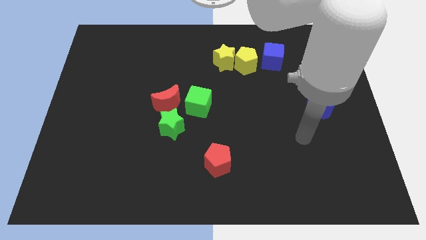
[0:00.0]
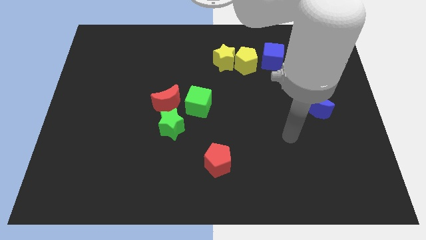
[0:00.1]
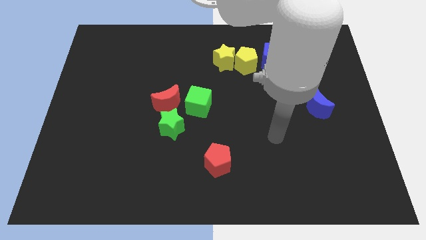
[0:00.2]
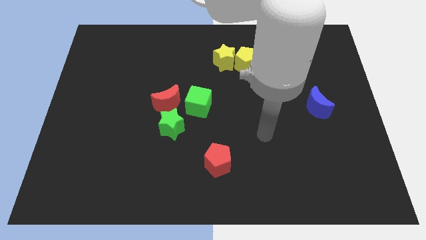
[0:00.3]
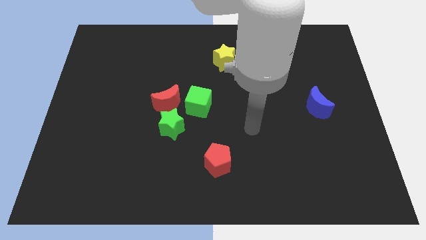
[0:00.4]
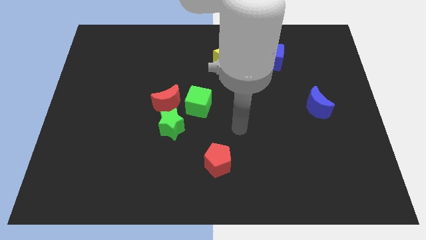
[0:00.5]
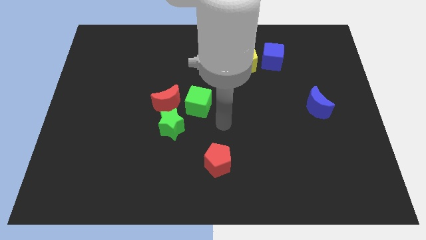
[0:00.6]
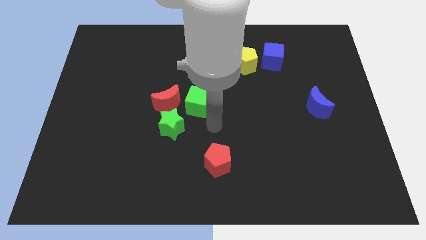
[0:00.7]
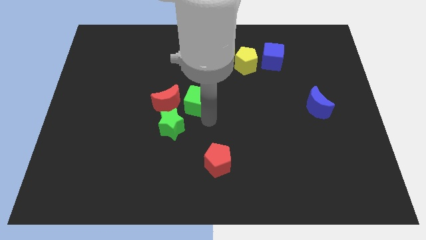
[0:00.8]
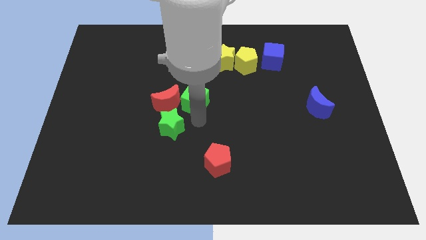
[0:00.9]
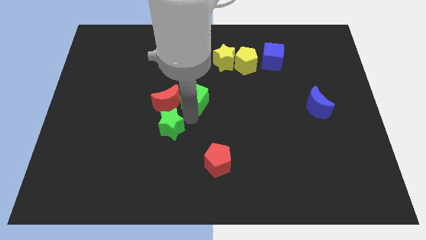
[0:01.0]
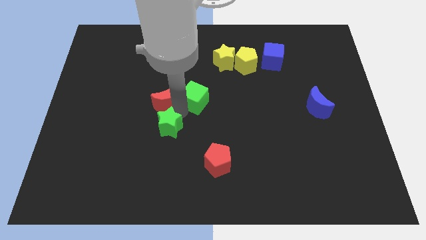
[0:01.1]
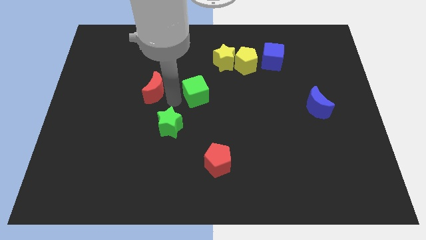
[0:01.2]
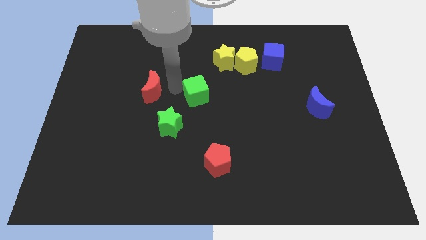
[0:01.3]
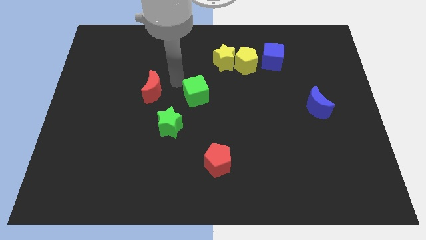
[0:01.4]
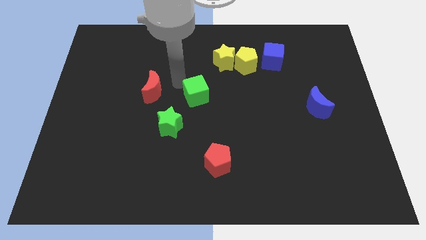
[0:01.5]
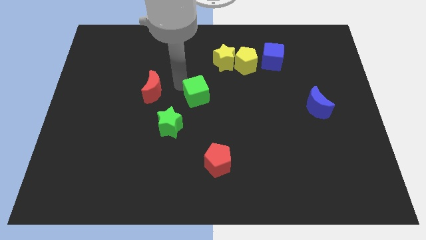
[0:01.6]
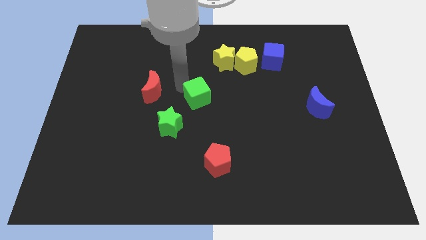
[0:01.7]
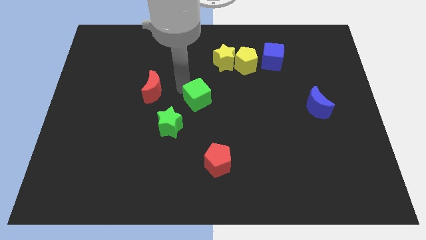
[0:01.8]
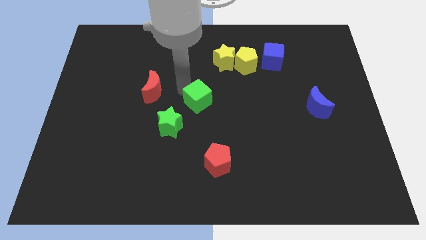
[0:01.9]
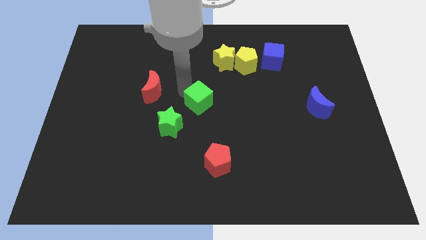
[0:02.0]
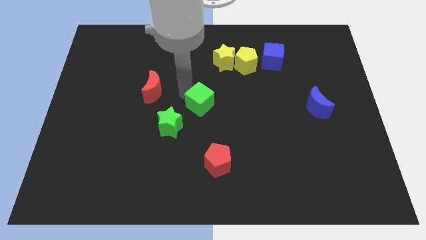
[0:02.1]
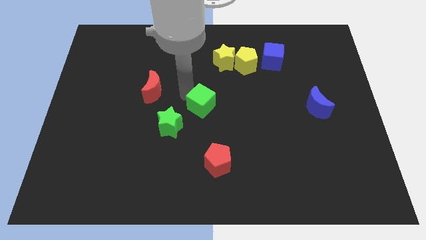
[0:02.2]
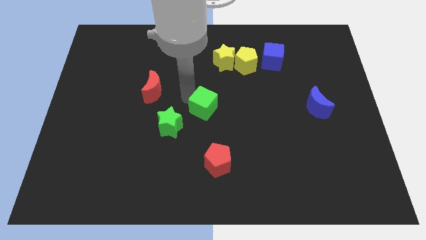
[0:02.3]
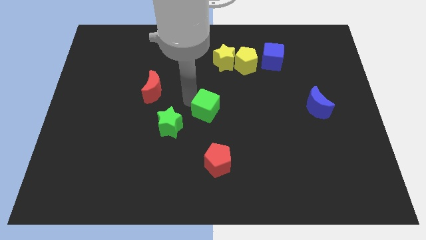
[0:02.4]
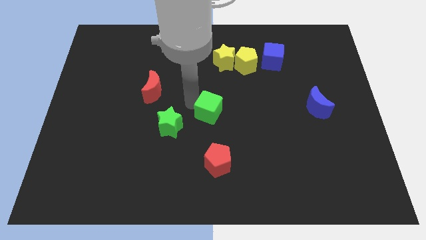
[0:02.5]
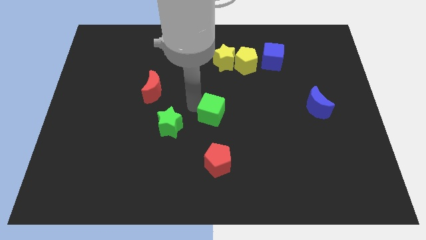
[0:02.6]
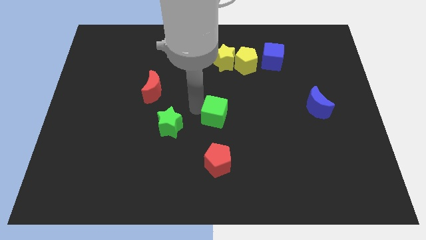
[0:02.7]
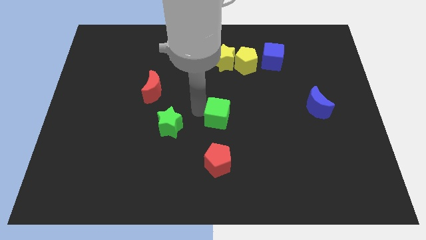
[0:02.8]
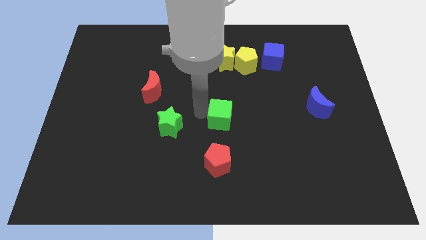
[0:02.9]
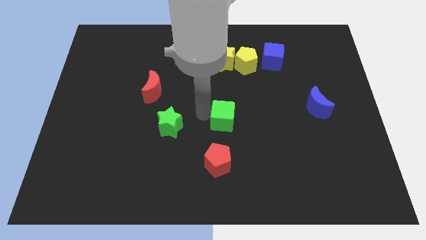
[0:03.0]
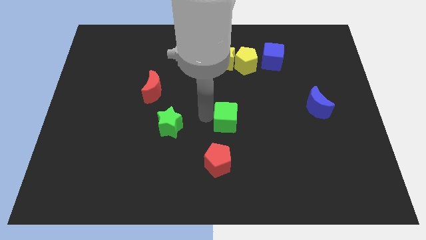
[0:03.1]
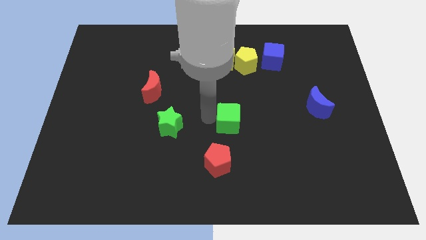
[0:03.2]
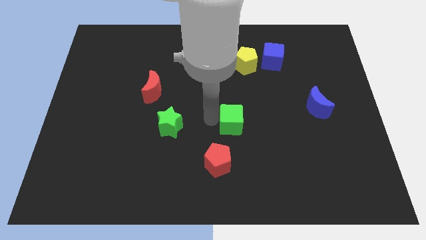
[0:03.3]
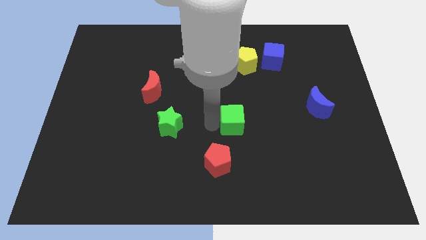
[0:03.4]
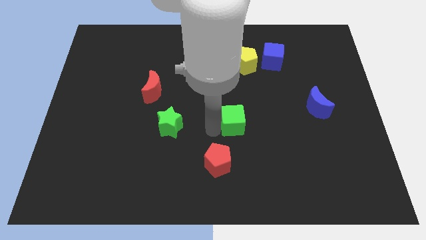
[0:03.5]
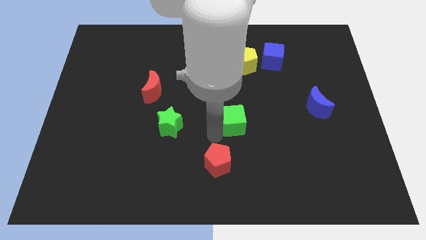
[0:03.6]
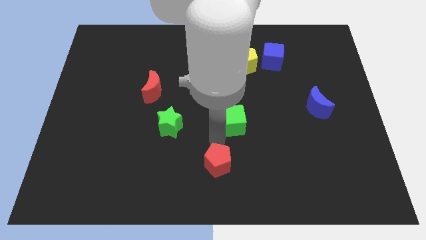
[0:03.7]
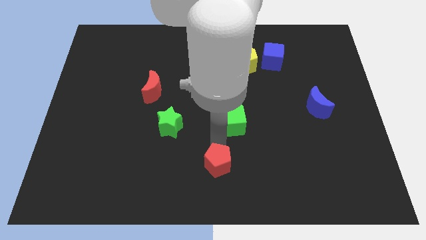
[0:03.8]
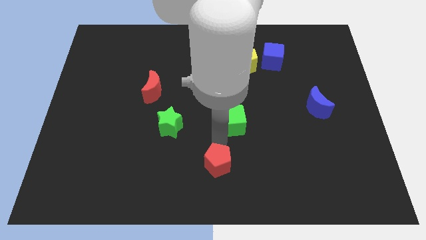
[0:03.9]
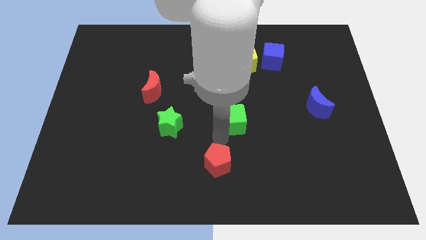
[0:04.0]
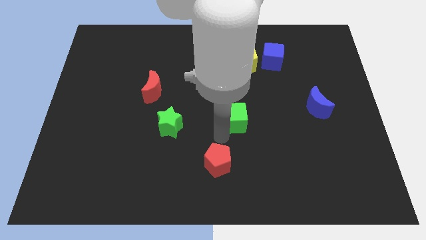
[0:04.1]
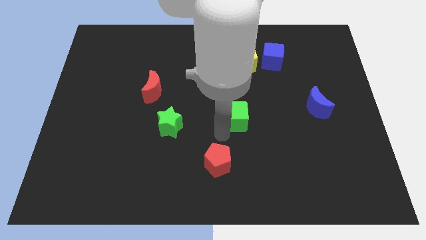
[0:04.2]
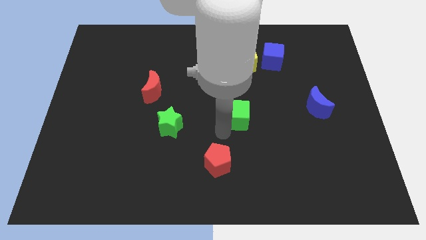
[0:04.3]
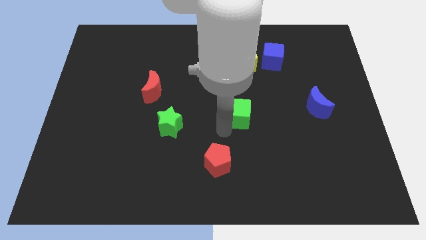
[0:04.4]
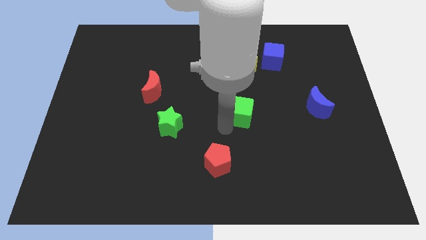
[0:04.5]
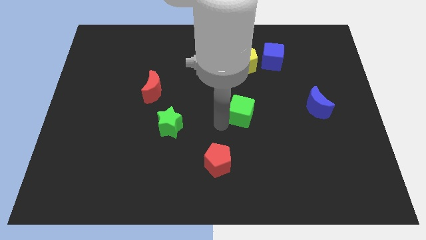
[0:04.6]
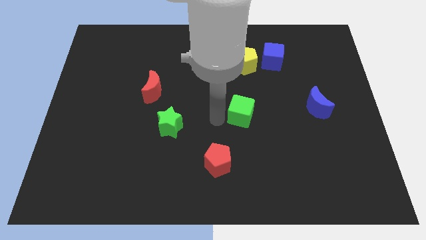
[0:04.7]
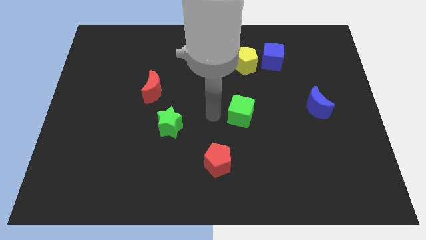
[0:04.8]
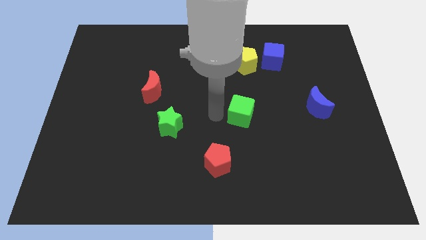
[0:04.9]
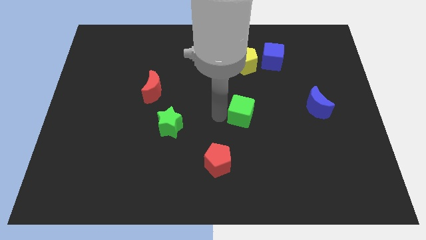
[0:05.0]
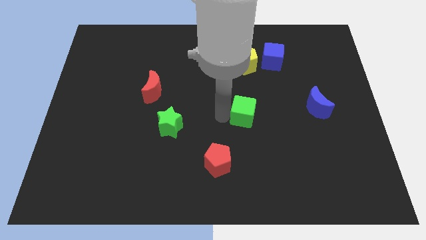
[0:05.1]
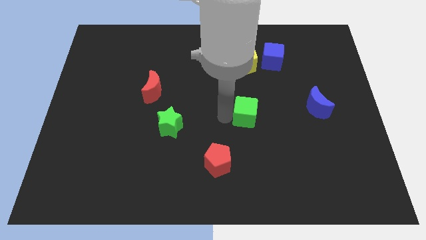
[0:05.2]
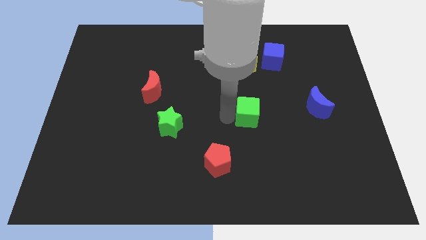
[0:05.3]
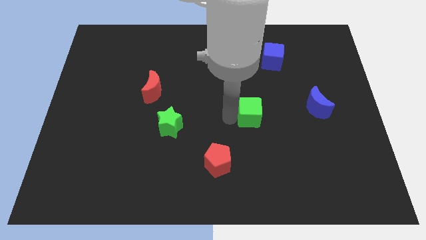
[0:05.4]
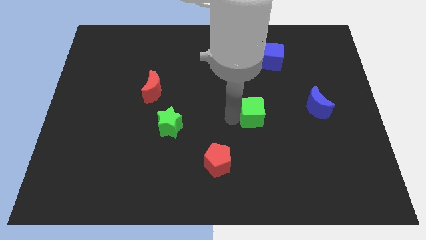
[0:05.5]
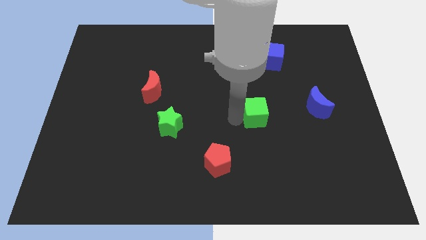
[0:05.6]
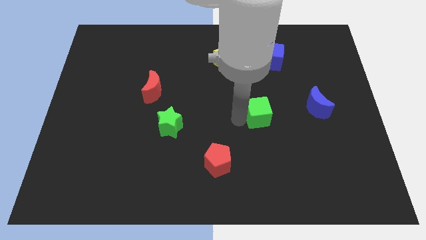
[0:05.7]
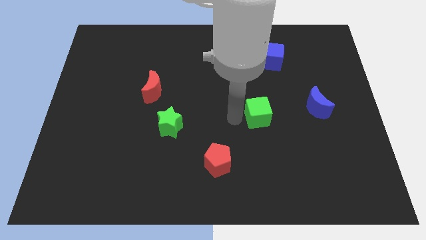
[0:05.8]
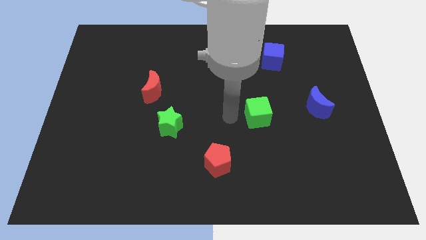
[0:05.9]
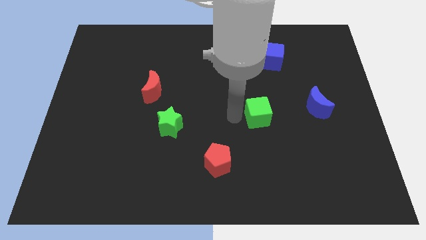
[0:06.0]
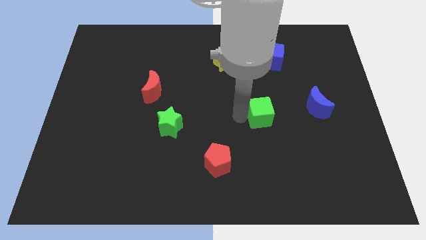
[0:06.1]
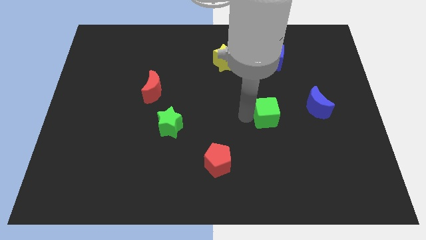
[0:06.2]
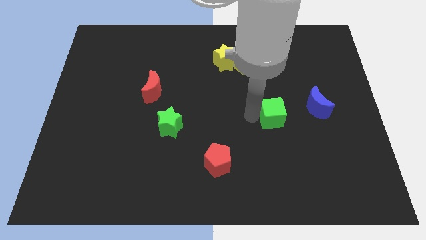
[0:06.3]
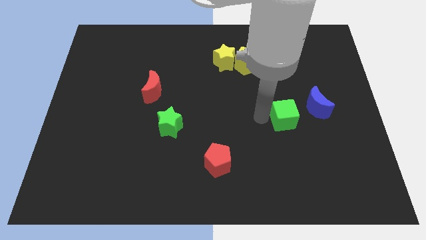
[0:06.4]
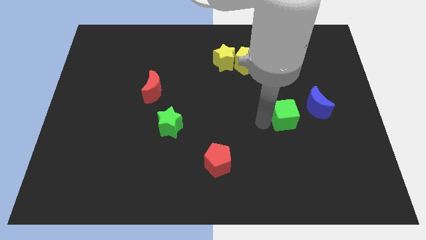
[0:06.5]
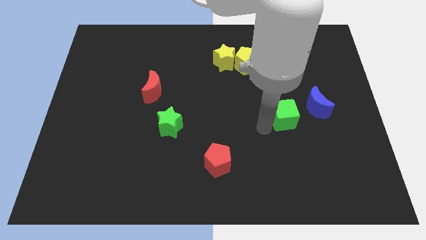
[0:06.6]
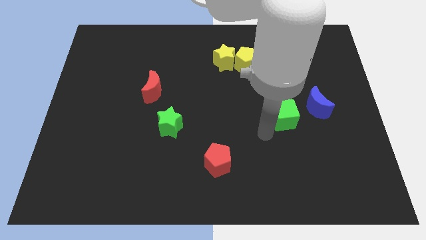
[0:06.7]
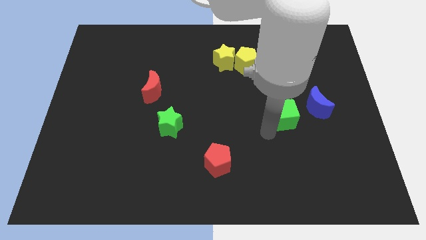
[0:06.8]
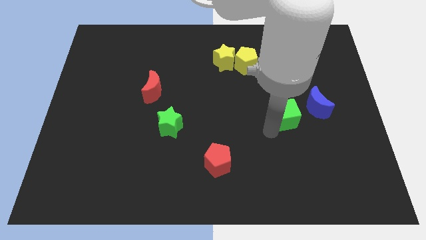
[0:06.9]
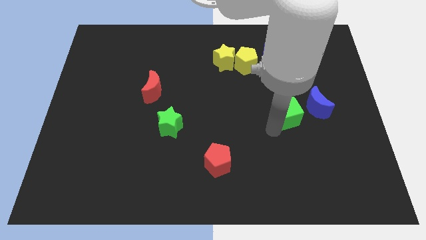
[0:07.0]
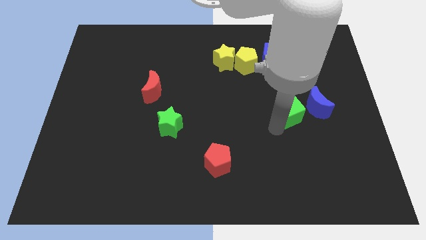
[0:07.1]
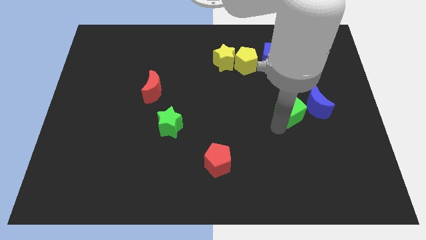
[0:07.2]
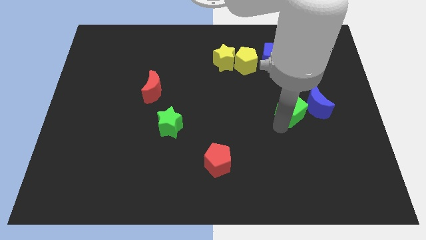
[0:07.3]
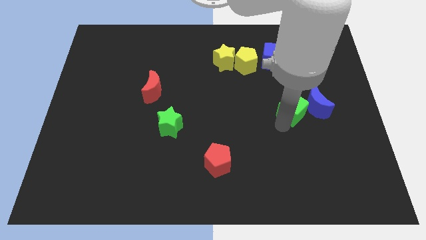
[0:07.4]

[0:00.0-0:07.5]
push the green cube towards the blue moon

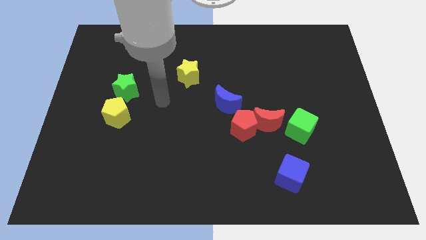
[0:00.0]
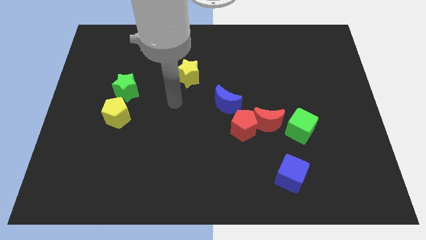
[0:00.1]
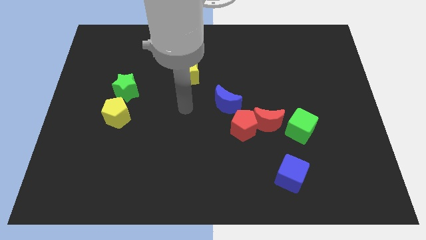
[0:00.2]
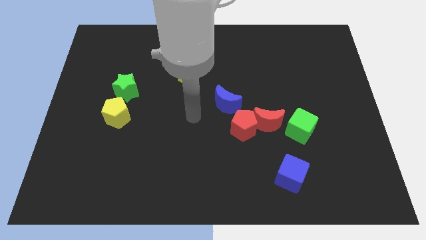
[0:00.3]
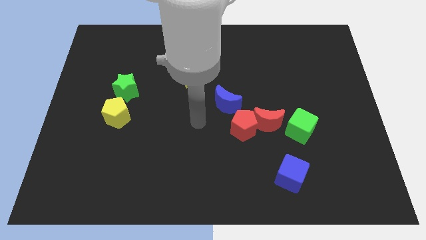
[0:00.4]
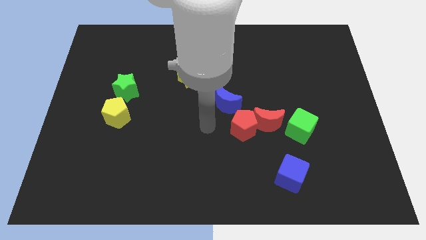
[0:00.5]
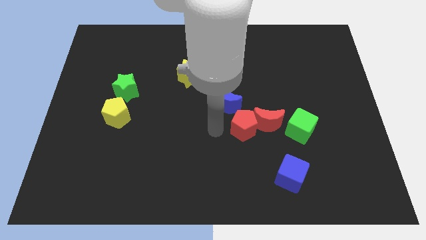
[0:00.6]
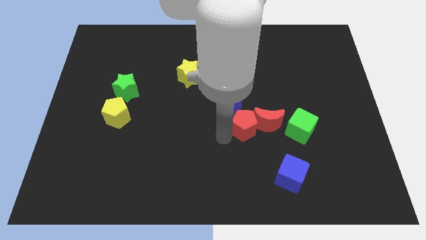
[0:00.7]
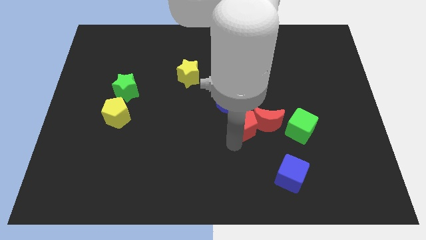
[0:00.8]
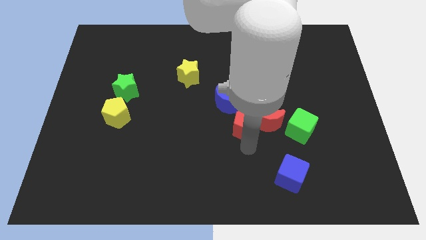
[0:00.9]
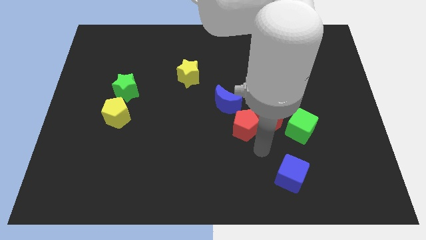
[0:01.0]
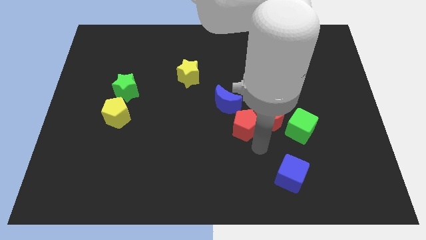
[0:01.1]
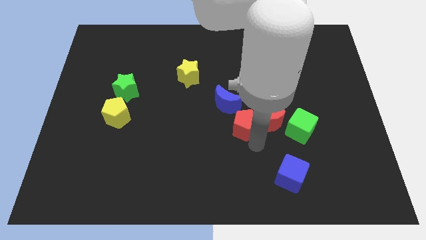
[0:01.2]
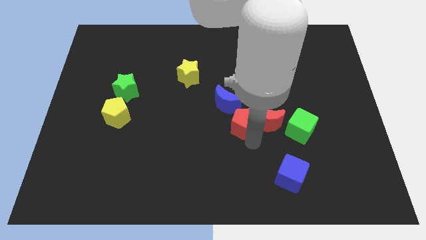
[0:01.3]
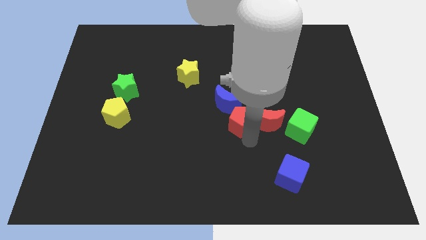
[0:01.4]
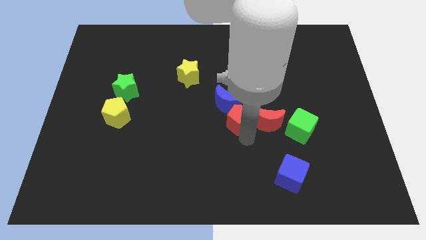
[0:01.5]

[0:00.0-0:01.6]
put the red pentagon close to the blue moon
